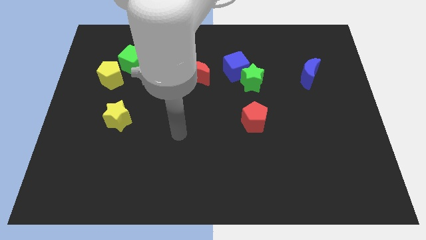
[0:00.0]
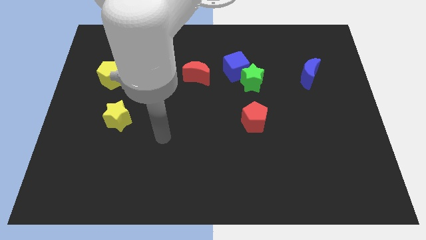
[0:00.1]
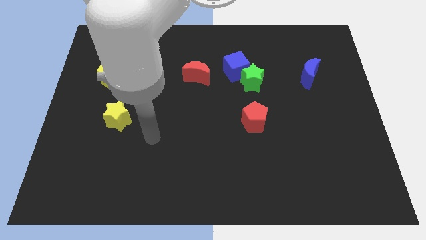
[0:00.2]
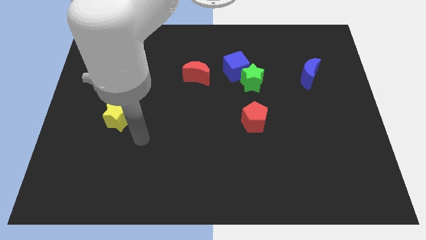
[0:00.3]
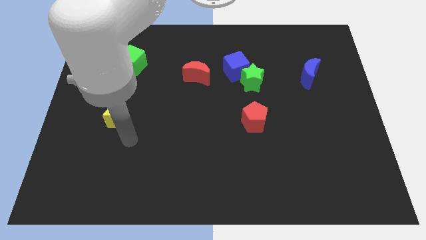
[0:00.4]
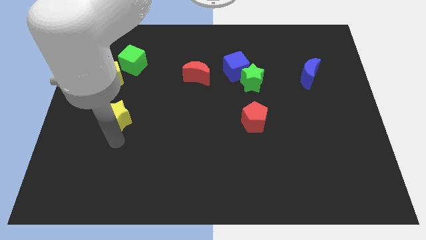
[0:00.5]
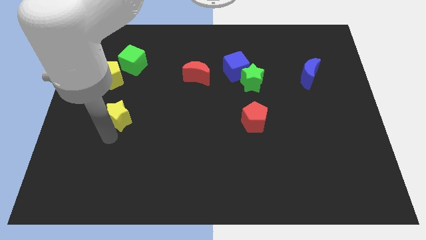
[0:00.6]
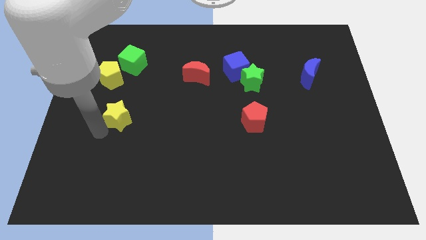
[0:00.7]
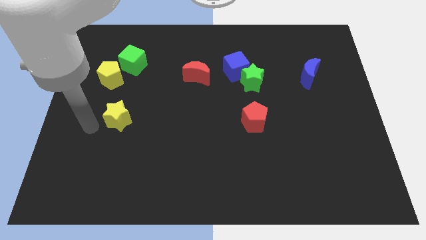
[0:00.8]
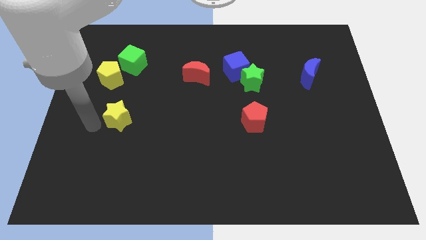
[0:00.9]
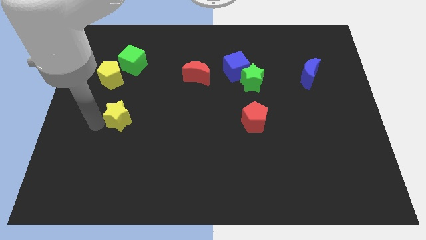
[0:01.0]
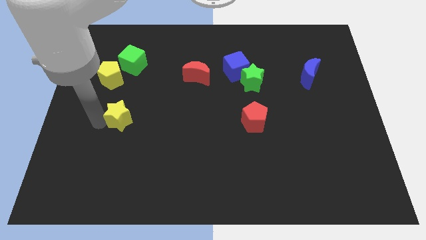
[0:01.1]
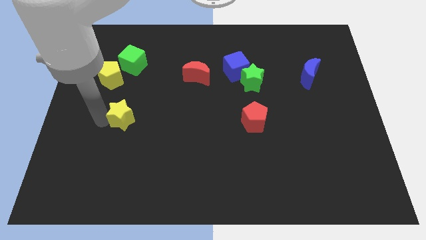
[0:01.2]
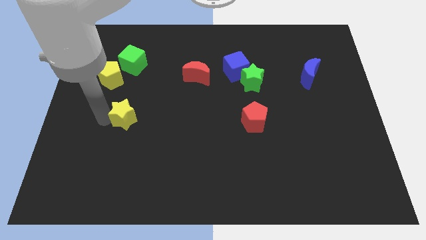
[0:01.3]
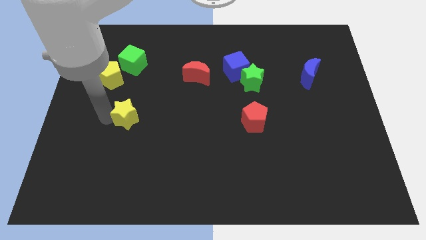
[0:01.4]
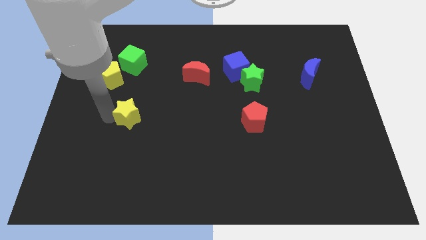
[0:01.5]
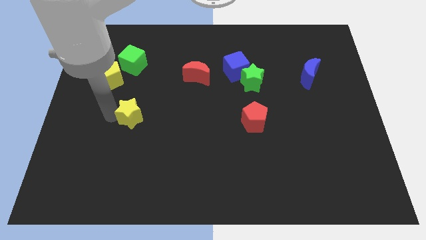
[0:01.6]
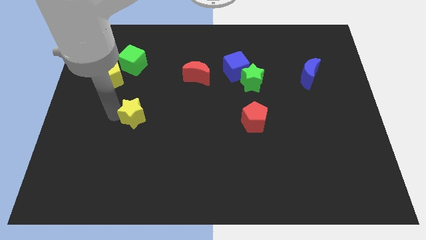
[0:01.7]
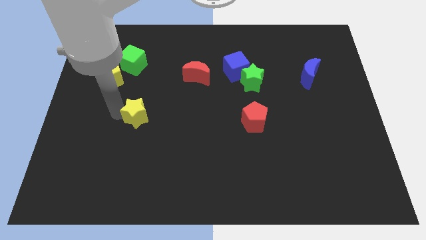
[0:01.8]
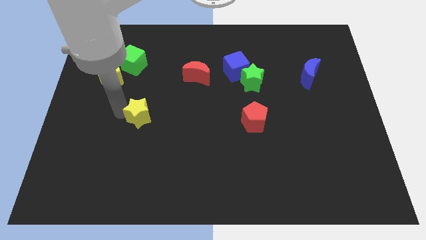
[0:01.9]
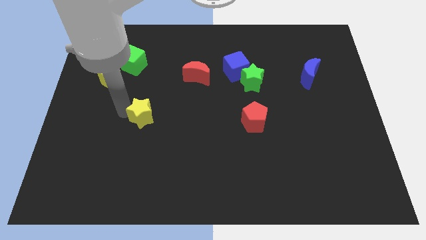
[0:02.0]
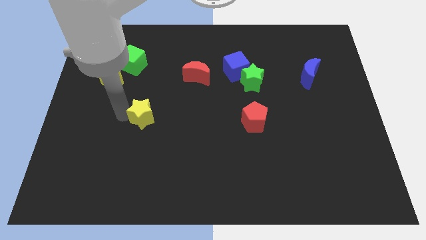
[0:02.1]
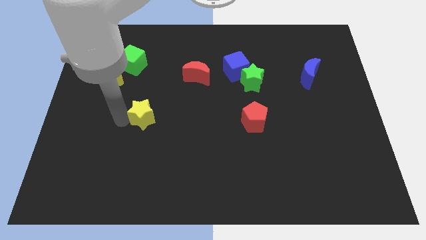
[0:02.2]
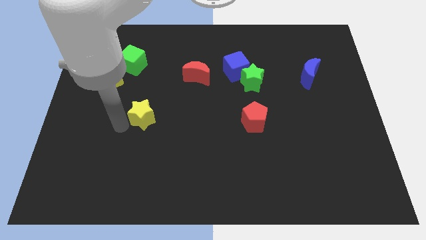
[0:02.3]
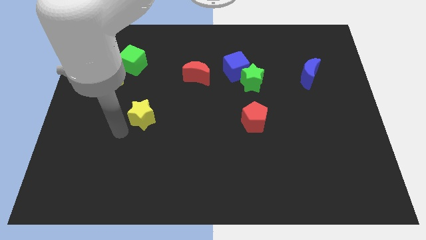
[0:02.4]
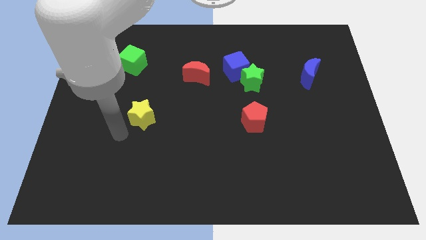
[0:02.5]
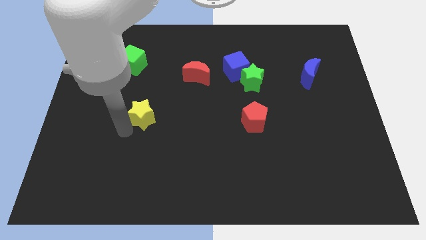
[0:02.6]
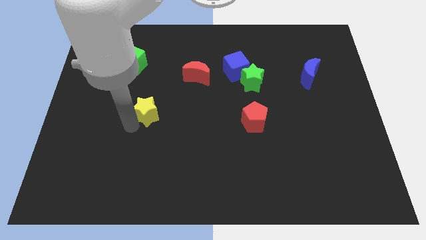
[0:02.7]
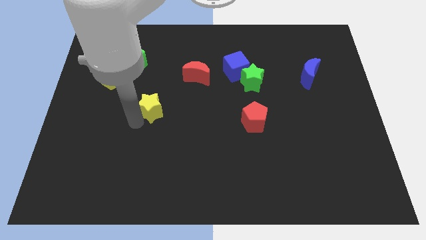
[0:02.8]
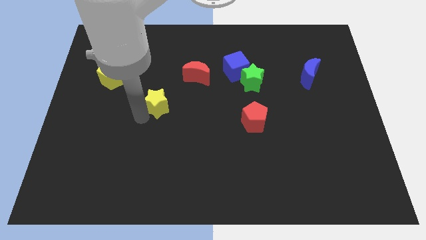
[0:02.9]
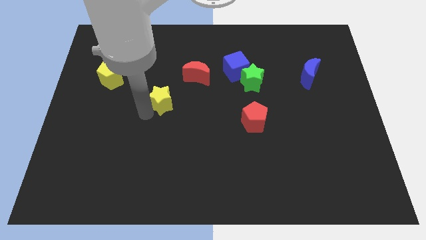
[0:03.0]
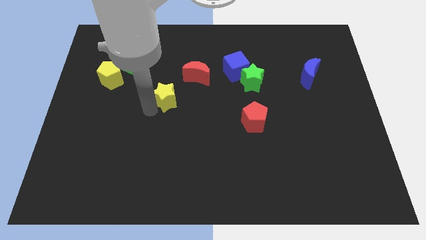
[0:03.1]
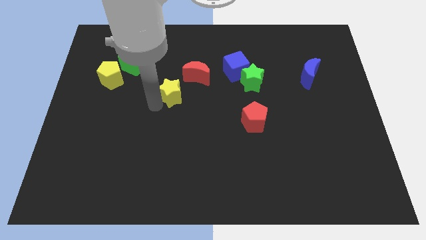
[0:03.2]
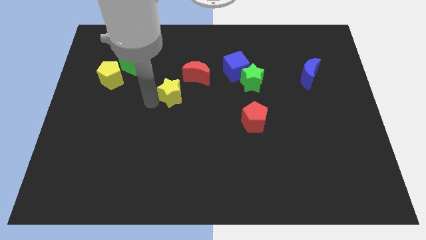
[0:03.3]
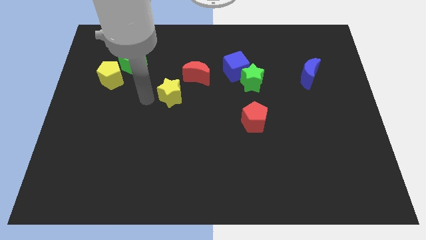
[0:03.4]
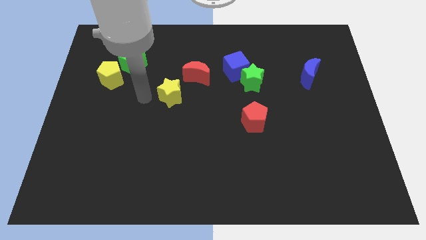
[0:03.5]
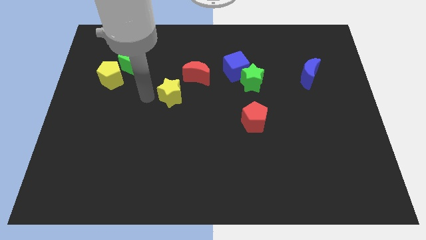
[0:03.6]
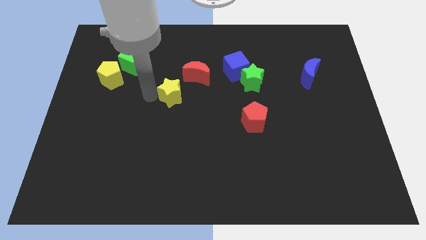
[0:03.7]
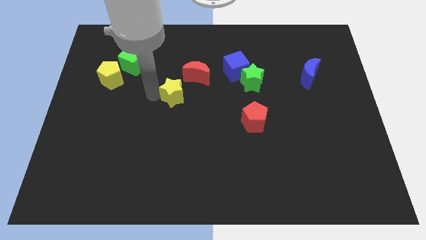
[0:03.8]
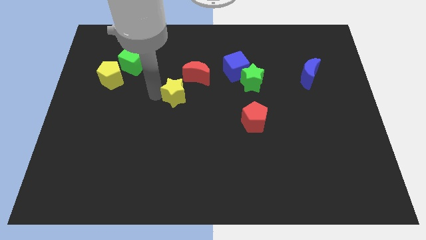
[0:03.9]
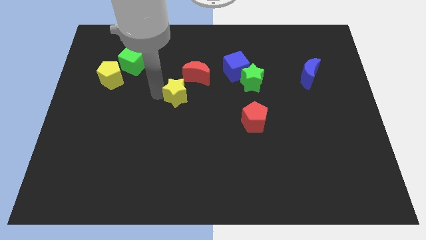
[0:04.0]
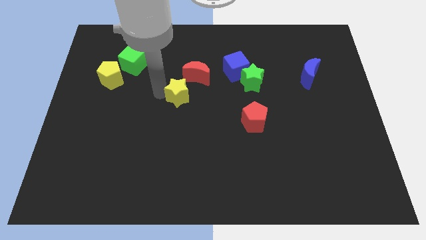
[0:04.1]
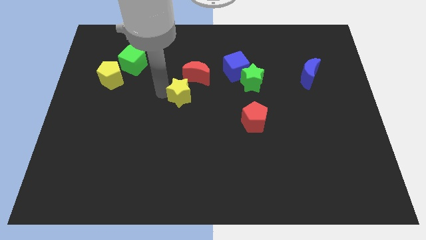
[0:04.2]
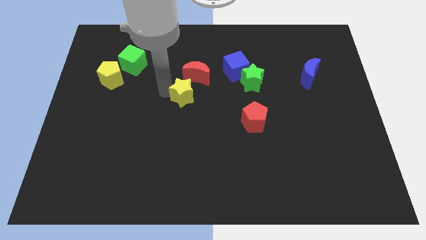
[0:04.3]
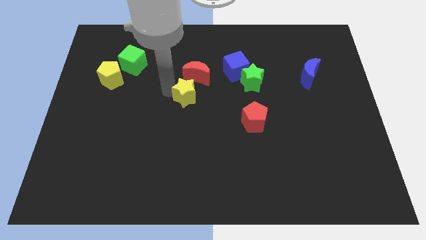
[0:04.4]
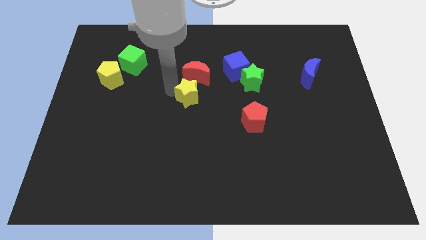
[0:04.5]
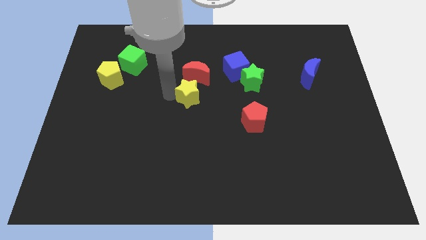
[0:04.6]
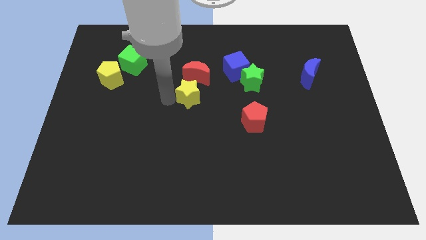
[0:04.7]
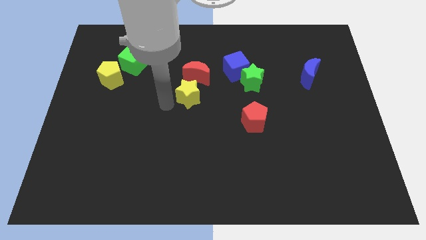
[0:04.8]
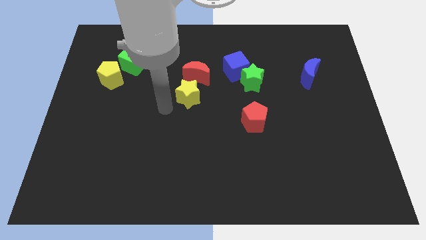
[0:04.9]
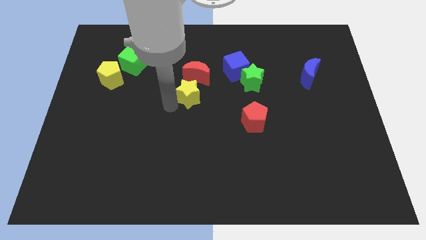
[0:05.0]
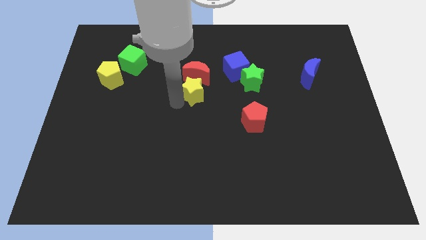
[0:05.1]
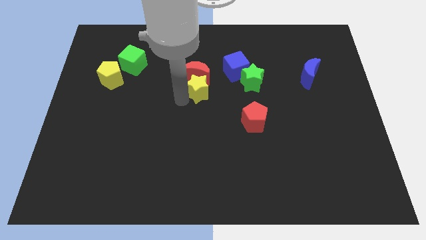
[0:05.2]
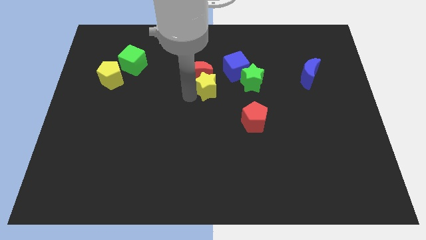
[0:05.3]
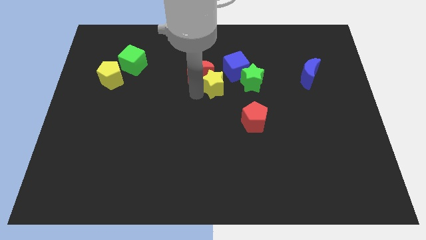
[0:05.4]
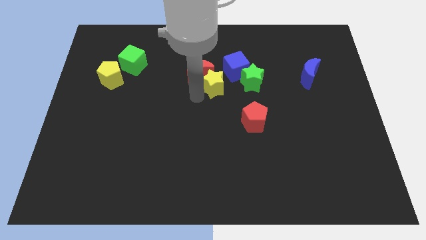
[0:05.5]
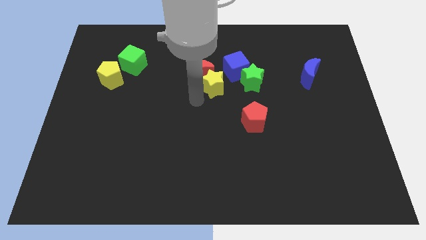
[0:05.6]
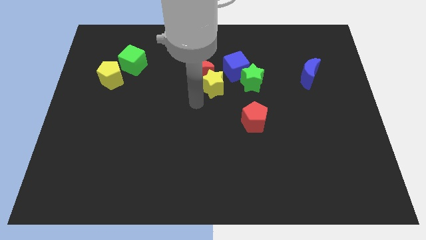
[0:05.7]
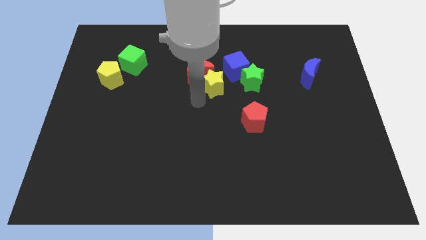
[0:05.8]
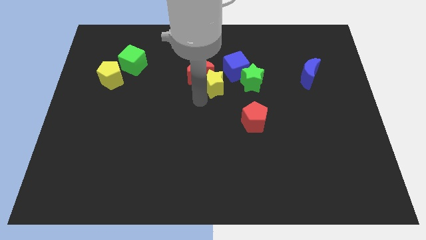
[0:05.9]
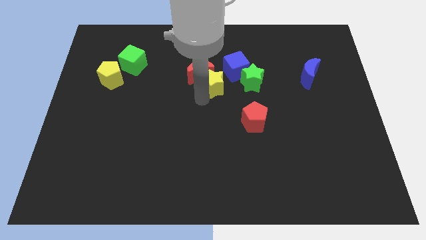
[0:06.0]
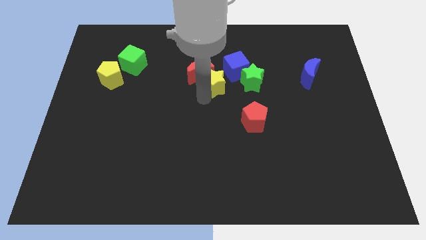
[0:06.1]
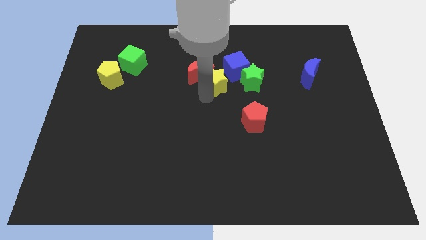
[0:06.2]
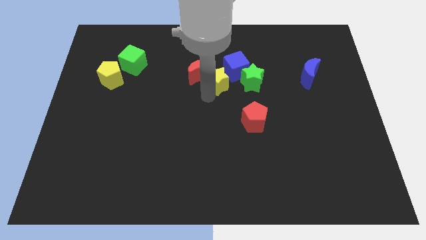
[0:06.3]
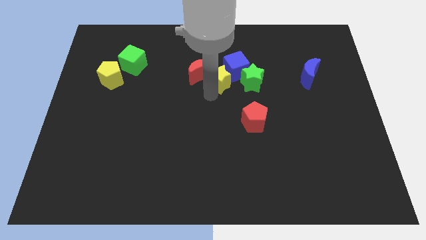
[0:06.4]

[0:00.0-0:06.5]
move the yellow star towards the blue cube

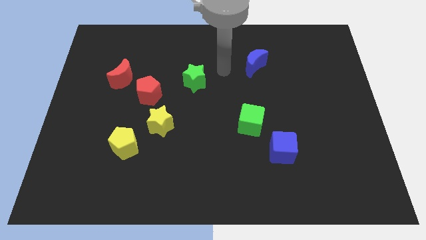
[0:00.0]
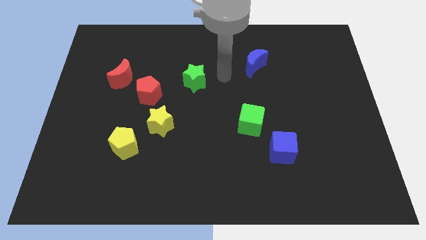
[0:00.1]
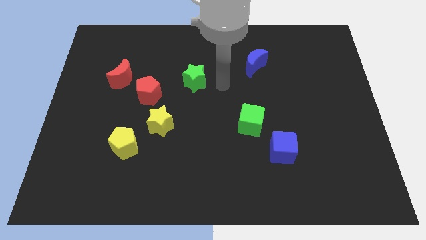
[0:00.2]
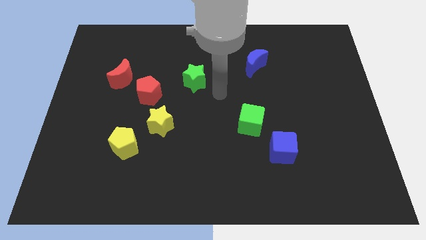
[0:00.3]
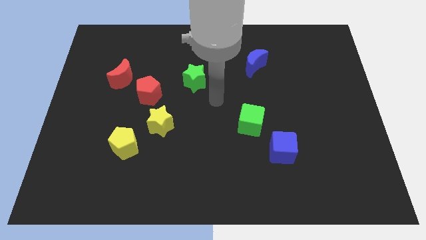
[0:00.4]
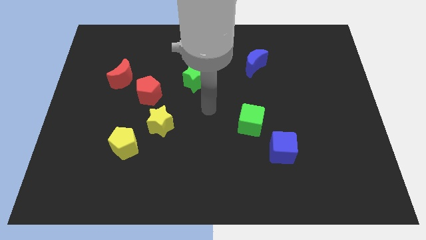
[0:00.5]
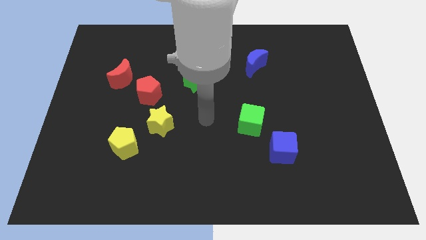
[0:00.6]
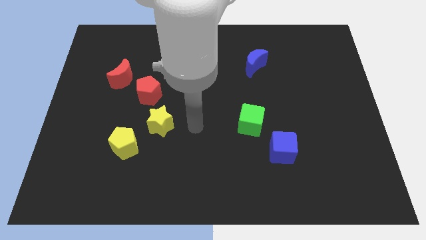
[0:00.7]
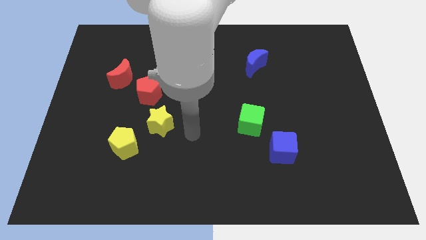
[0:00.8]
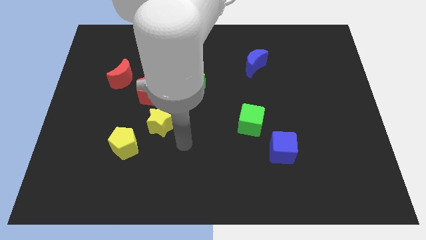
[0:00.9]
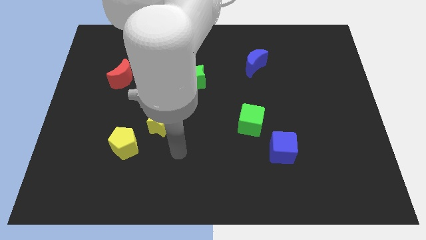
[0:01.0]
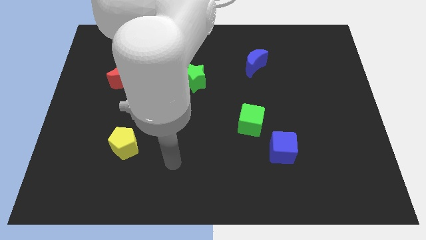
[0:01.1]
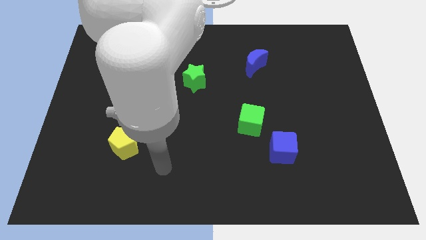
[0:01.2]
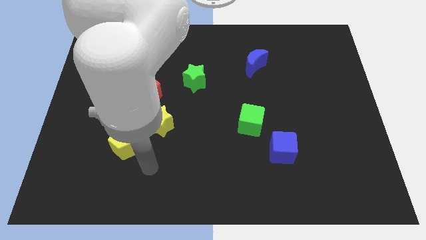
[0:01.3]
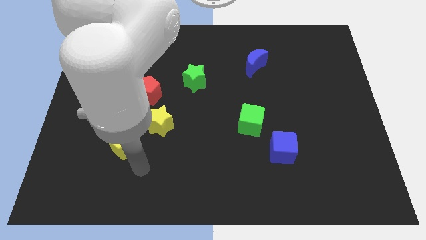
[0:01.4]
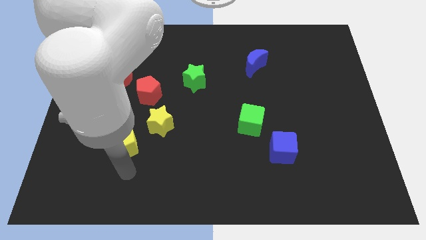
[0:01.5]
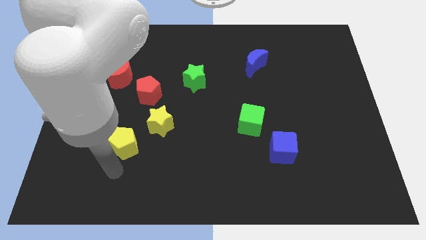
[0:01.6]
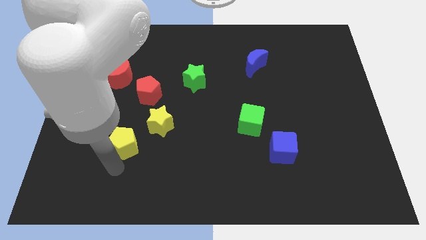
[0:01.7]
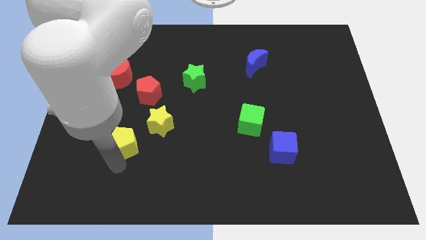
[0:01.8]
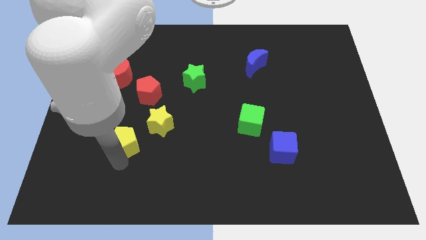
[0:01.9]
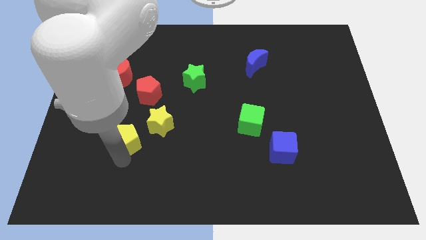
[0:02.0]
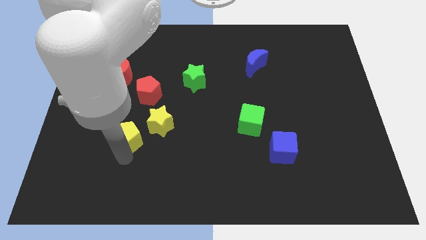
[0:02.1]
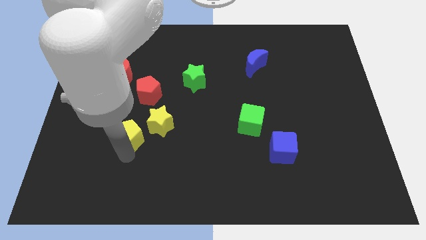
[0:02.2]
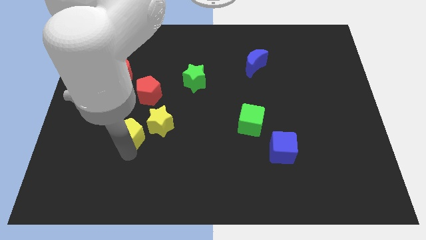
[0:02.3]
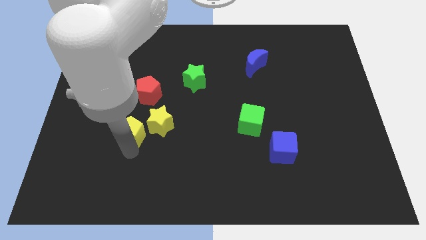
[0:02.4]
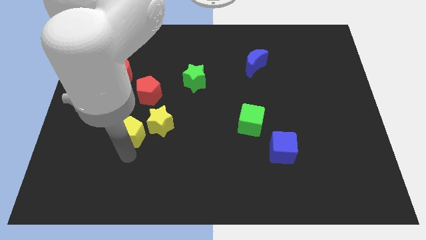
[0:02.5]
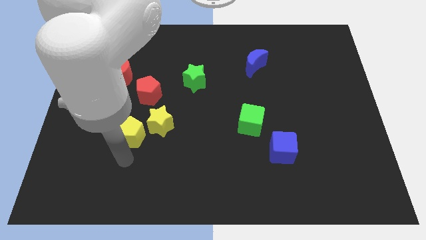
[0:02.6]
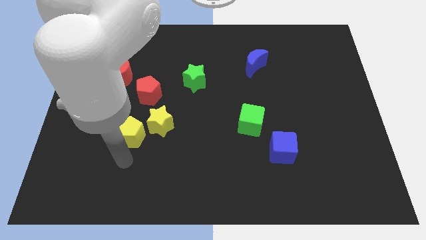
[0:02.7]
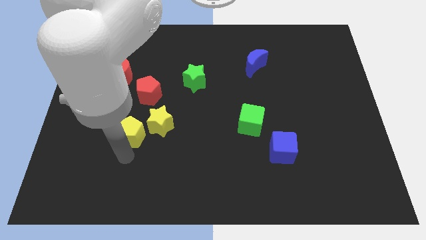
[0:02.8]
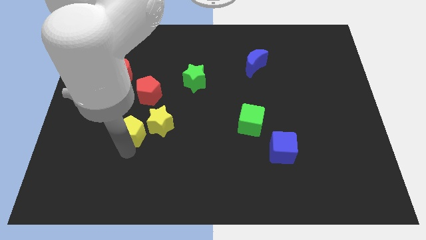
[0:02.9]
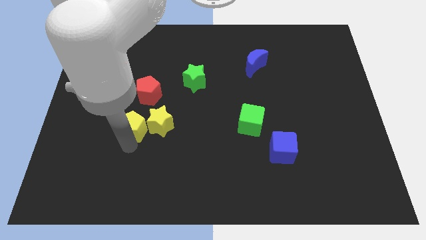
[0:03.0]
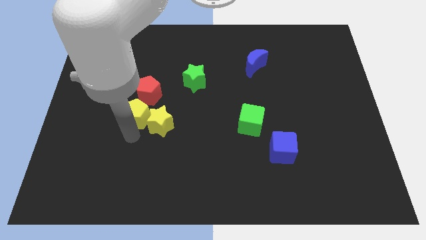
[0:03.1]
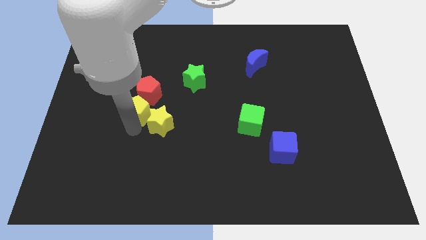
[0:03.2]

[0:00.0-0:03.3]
put the yellow pentagon towards the red pentagon
